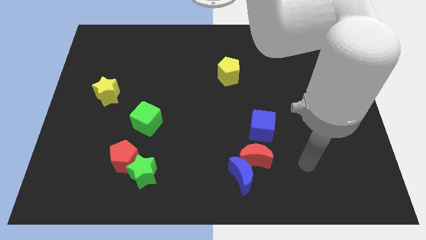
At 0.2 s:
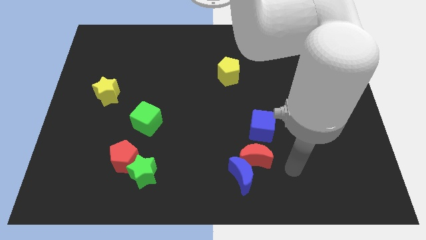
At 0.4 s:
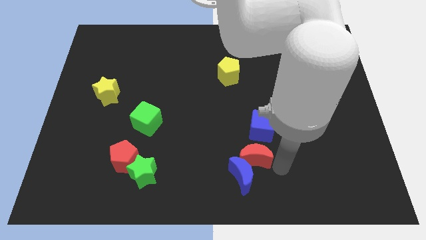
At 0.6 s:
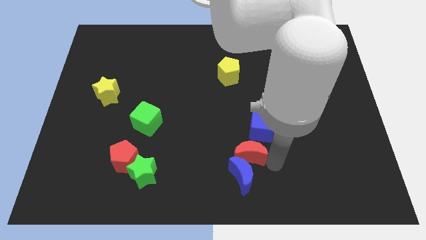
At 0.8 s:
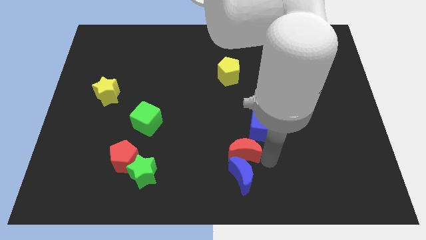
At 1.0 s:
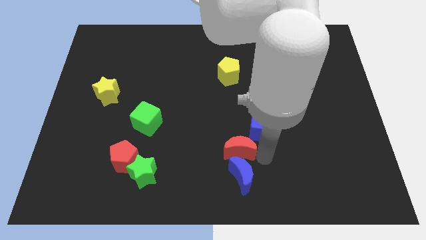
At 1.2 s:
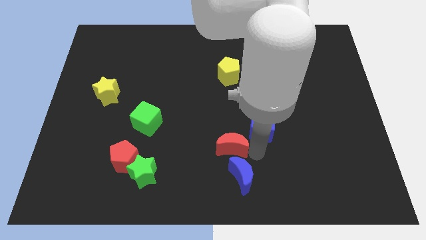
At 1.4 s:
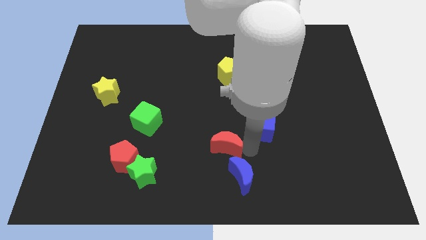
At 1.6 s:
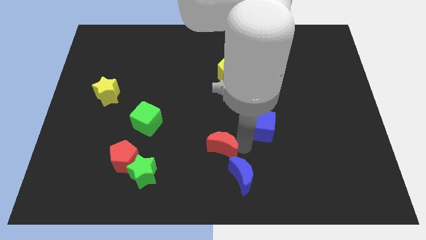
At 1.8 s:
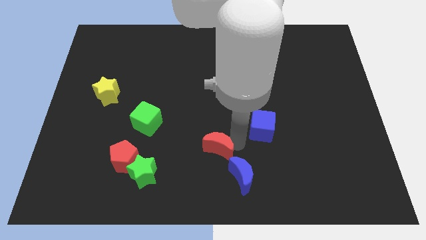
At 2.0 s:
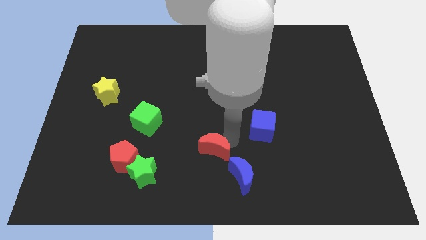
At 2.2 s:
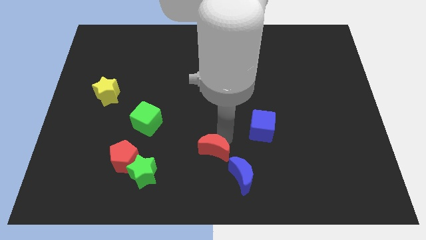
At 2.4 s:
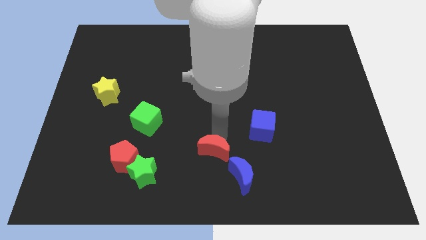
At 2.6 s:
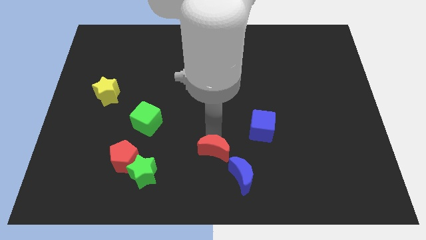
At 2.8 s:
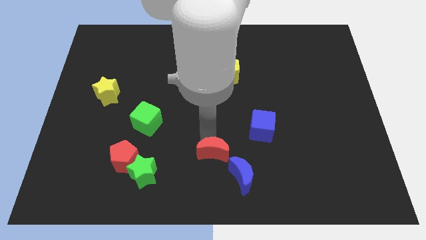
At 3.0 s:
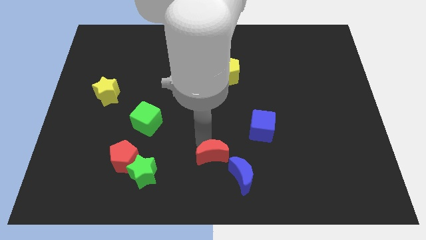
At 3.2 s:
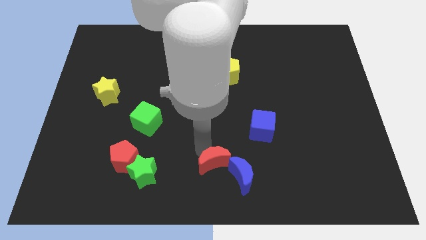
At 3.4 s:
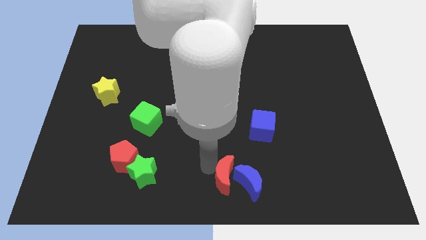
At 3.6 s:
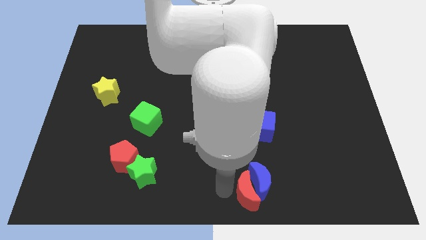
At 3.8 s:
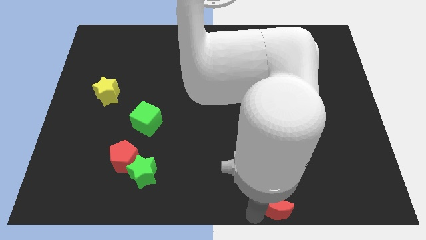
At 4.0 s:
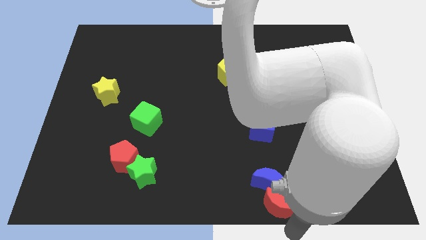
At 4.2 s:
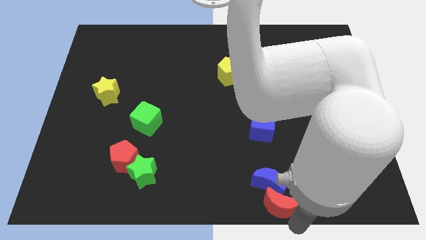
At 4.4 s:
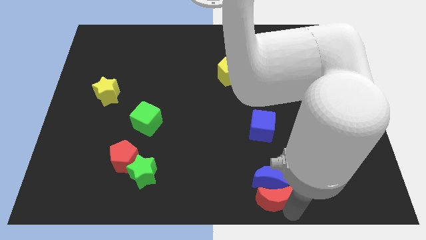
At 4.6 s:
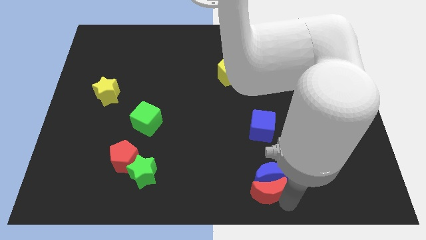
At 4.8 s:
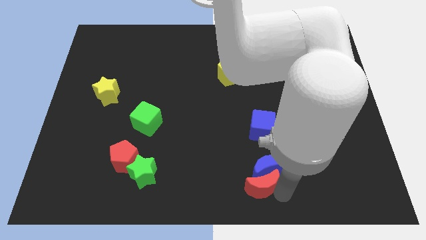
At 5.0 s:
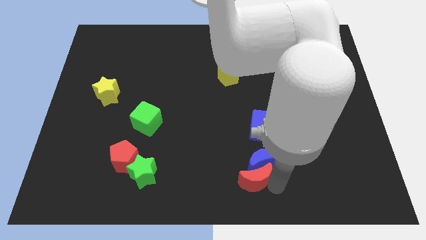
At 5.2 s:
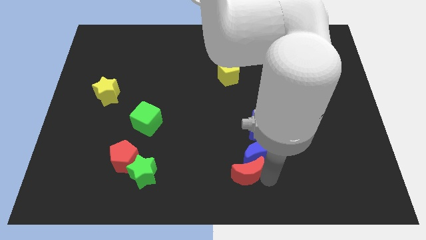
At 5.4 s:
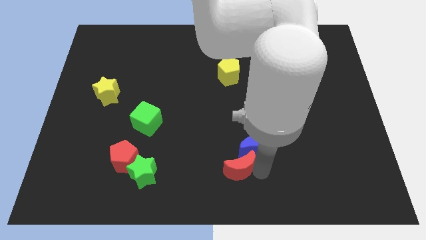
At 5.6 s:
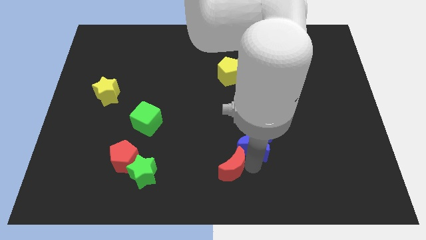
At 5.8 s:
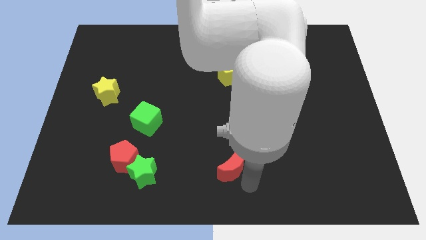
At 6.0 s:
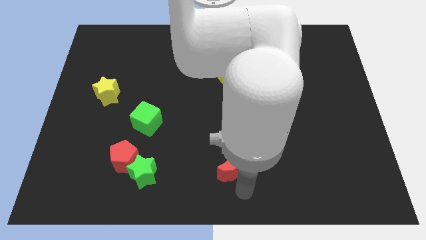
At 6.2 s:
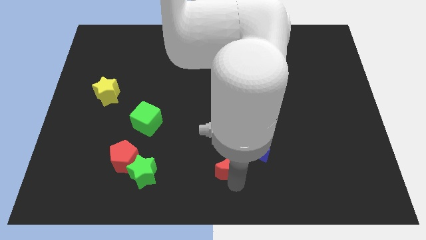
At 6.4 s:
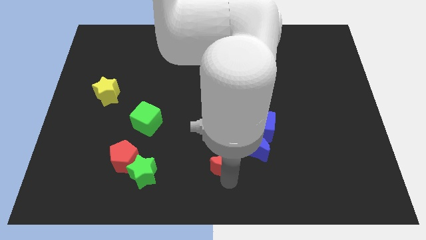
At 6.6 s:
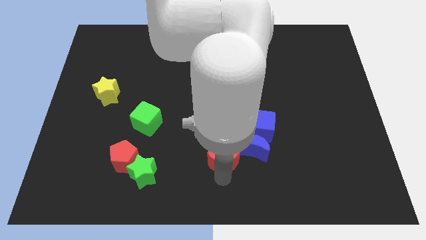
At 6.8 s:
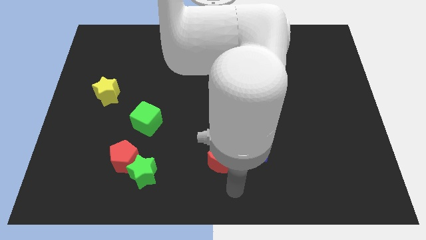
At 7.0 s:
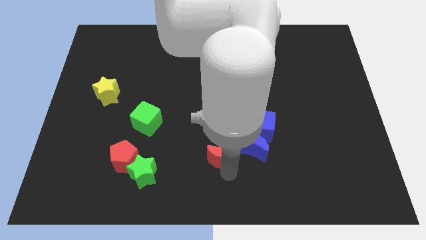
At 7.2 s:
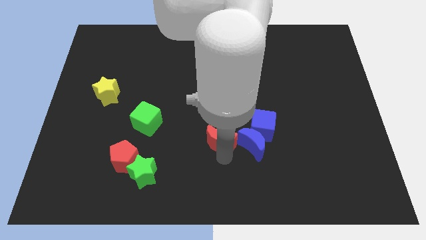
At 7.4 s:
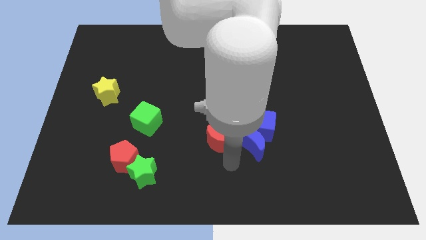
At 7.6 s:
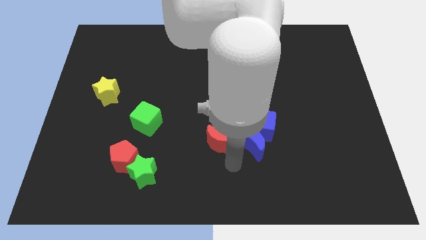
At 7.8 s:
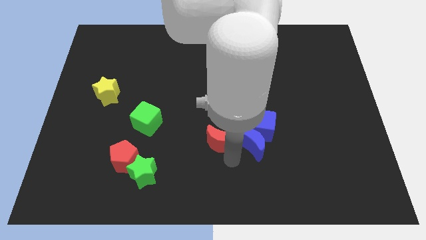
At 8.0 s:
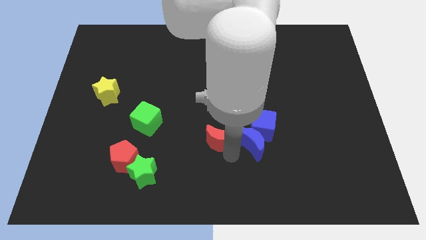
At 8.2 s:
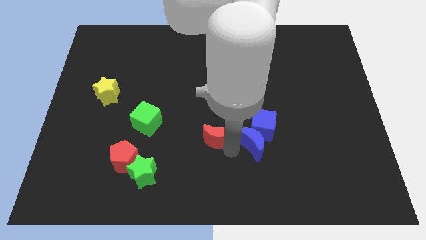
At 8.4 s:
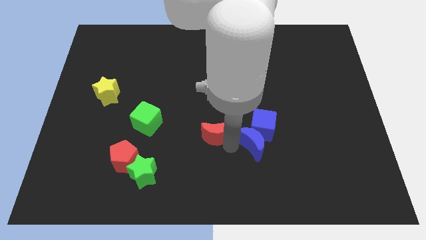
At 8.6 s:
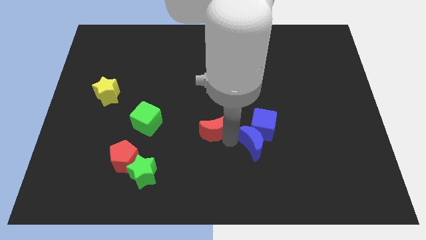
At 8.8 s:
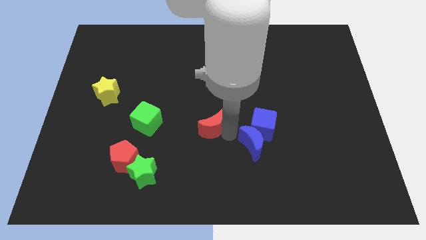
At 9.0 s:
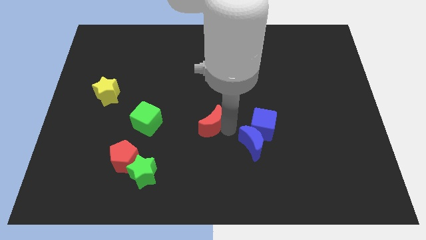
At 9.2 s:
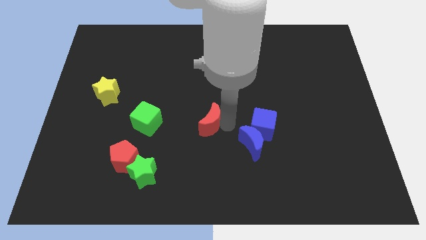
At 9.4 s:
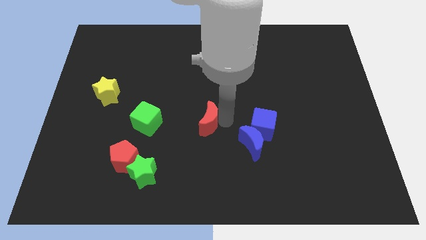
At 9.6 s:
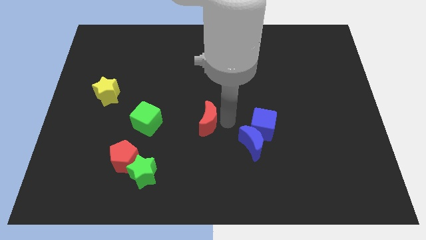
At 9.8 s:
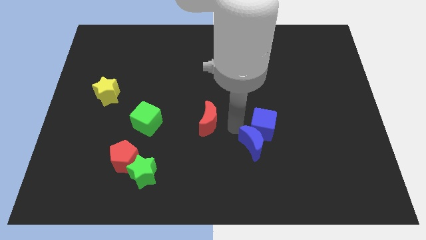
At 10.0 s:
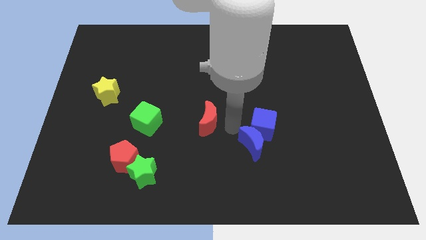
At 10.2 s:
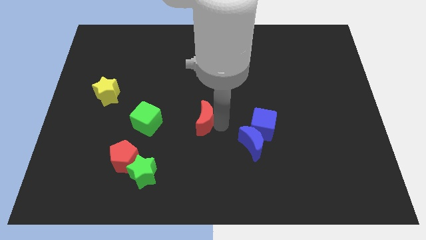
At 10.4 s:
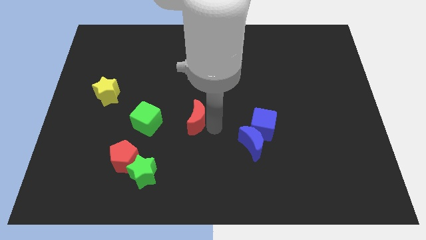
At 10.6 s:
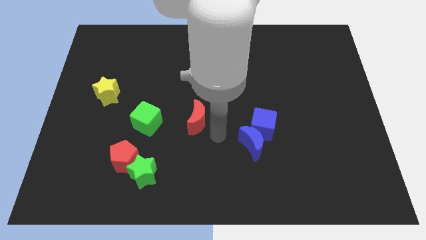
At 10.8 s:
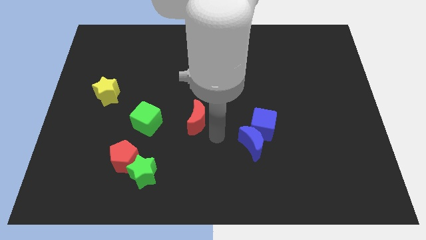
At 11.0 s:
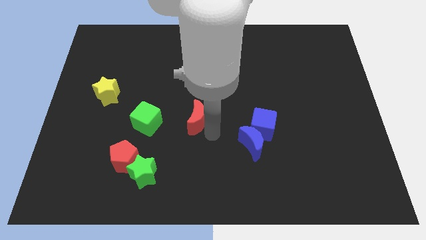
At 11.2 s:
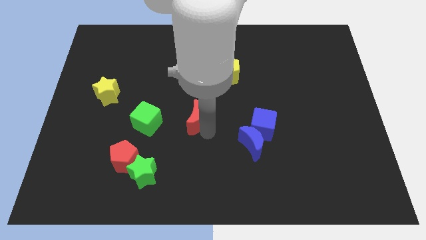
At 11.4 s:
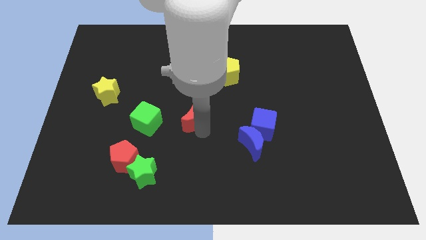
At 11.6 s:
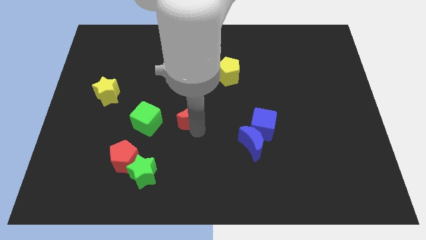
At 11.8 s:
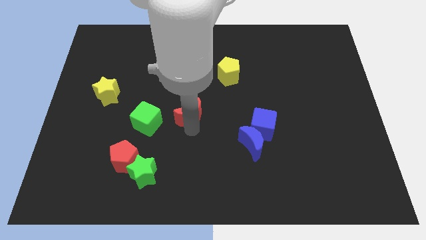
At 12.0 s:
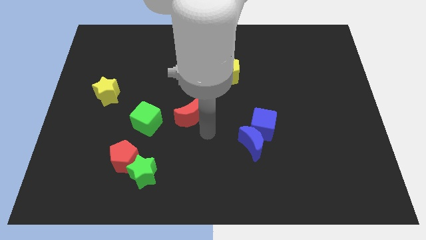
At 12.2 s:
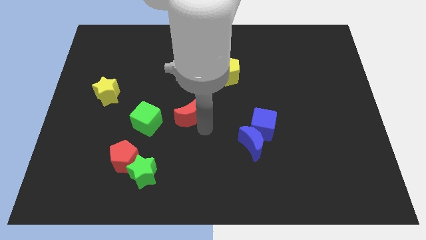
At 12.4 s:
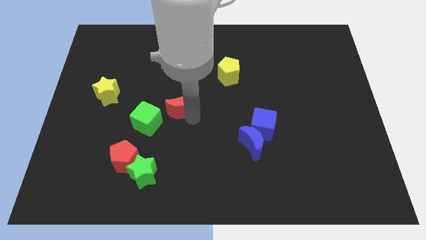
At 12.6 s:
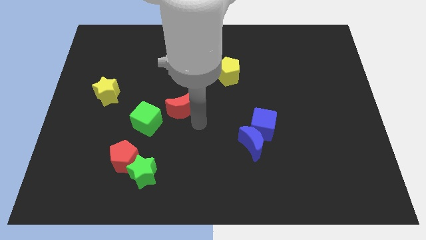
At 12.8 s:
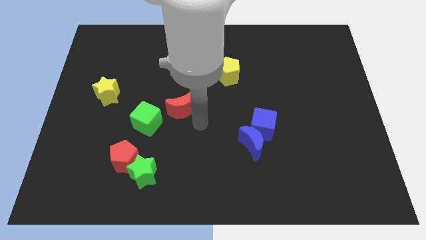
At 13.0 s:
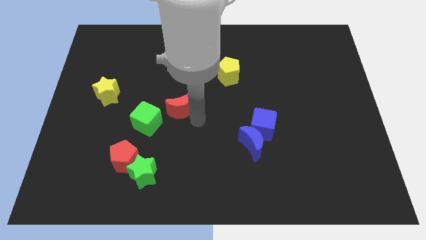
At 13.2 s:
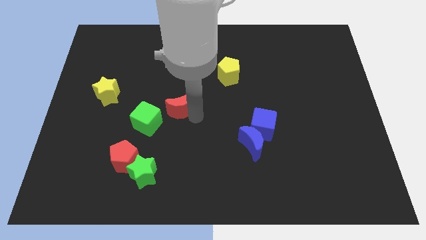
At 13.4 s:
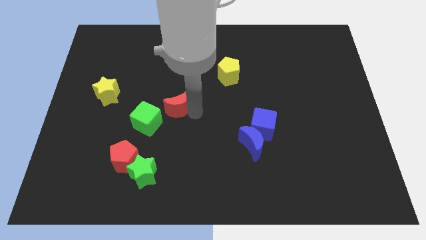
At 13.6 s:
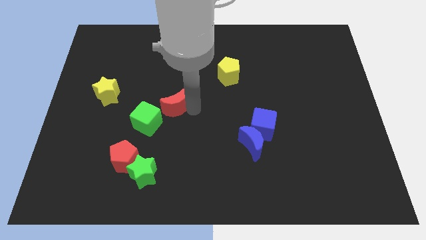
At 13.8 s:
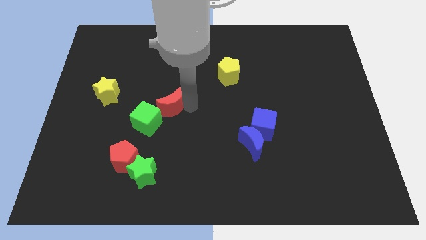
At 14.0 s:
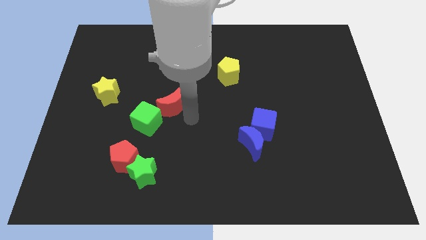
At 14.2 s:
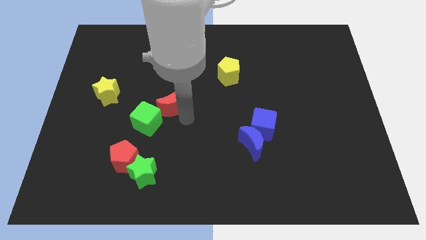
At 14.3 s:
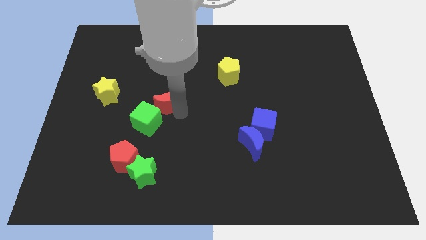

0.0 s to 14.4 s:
slide the red moon to the top side of the green cube

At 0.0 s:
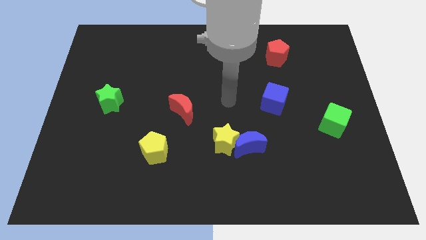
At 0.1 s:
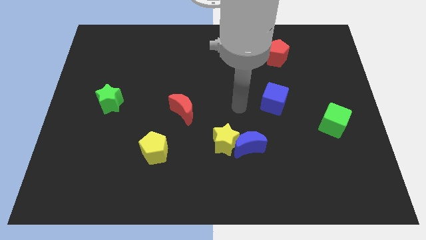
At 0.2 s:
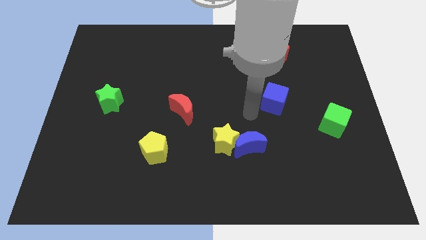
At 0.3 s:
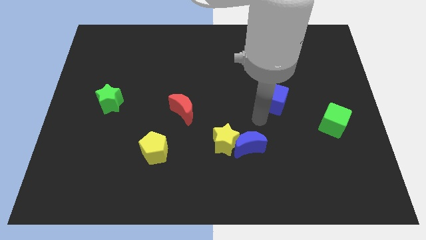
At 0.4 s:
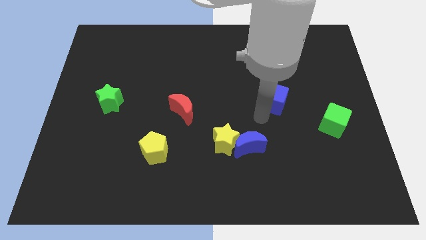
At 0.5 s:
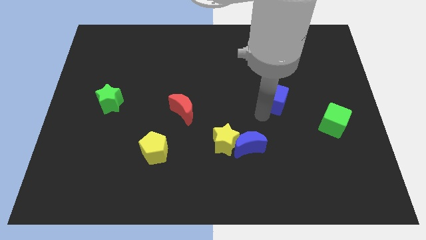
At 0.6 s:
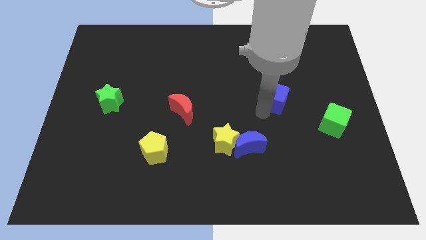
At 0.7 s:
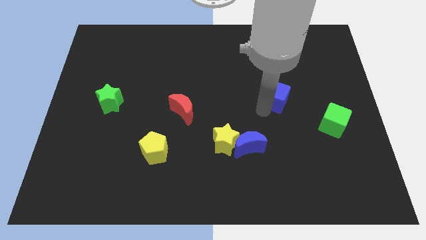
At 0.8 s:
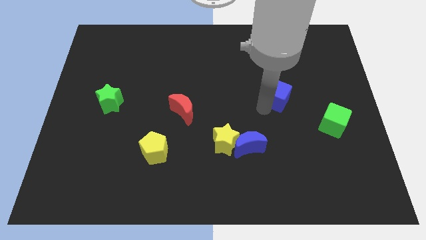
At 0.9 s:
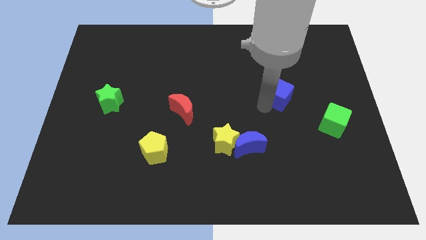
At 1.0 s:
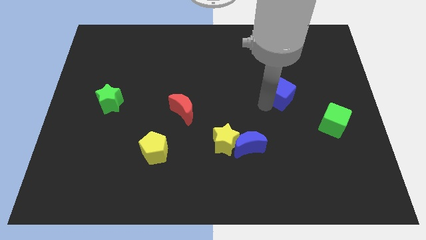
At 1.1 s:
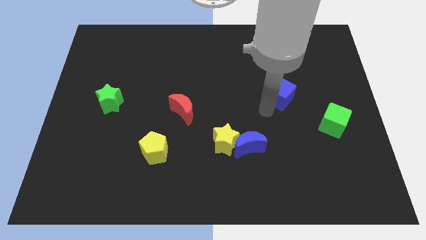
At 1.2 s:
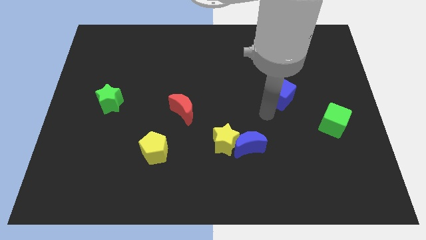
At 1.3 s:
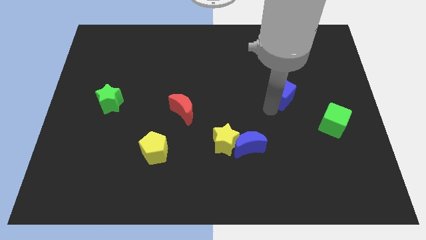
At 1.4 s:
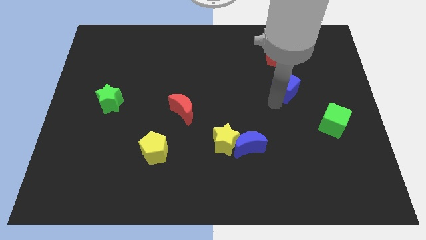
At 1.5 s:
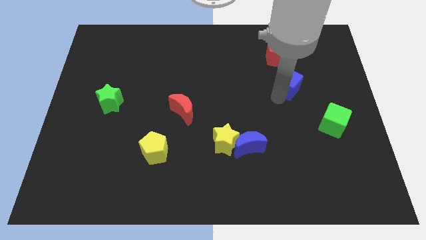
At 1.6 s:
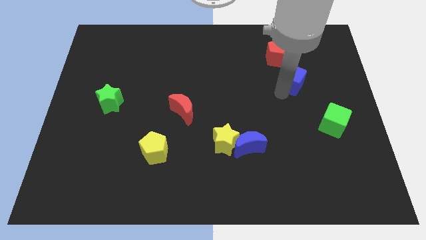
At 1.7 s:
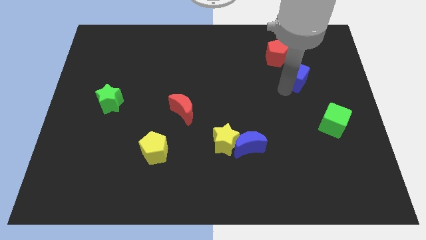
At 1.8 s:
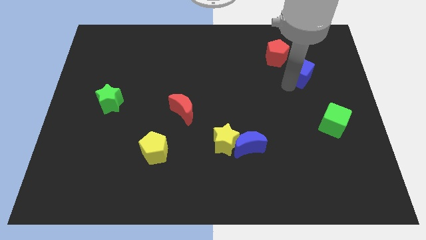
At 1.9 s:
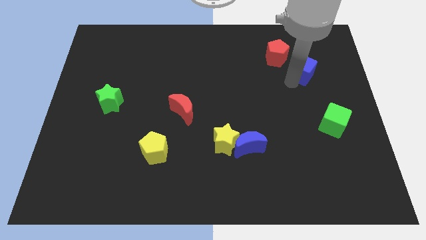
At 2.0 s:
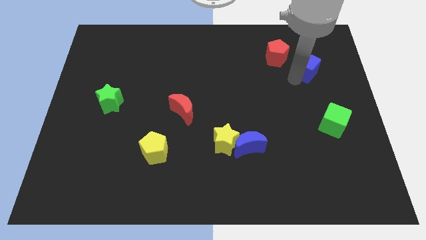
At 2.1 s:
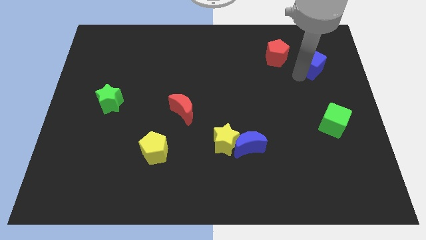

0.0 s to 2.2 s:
push the blue cube right of the red pentagon
